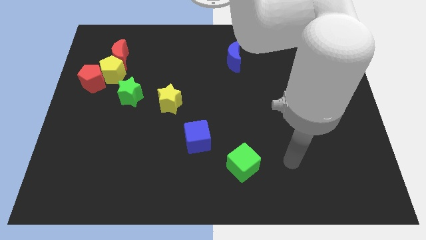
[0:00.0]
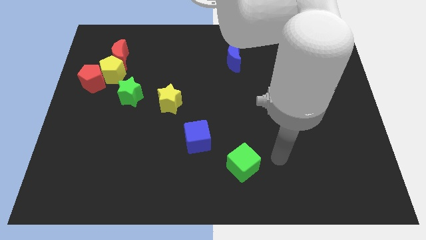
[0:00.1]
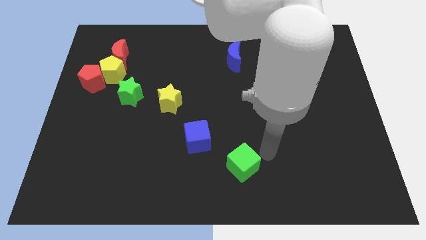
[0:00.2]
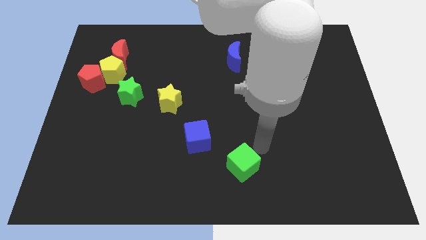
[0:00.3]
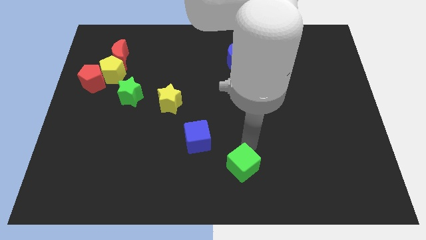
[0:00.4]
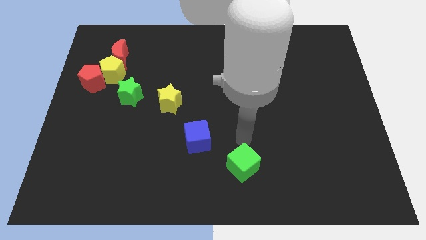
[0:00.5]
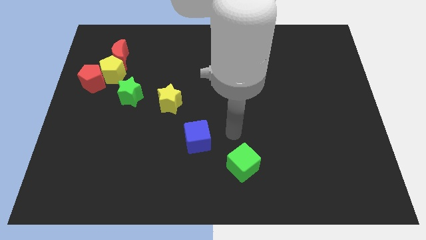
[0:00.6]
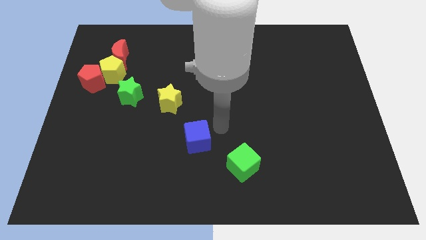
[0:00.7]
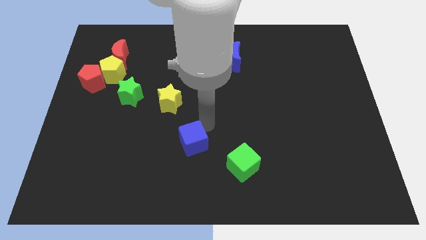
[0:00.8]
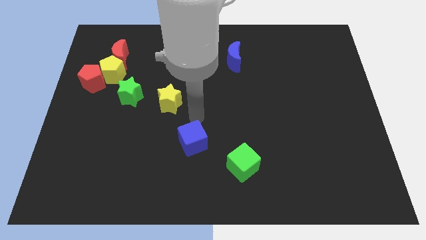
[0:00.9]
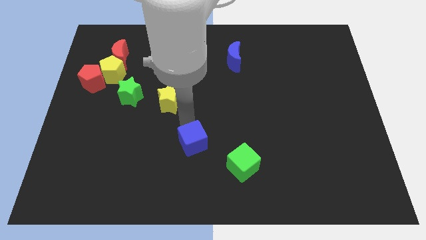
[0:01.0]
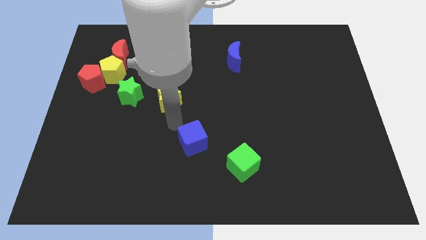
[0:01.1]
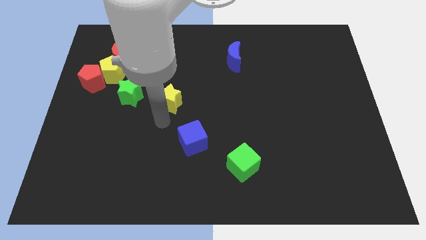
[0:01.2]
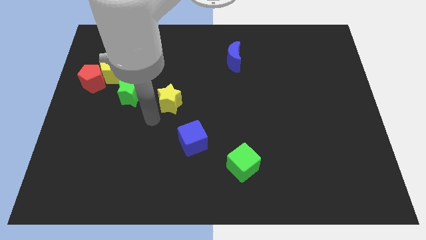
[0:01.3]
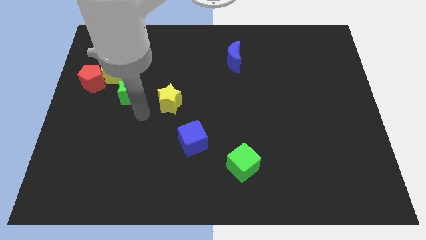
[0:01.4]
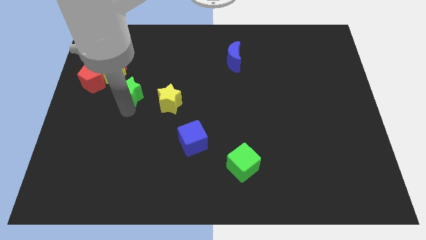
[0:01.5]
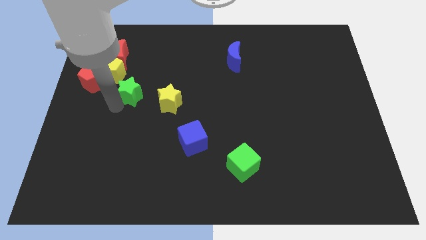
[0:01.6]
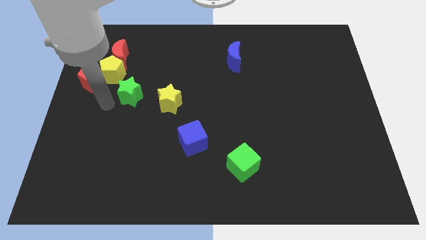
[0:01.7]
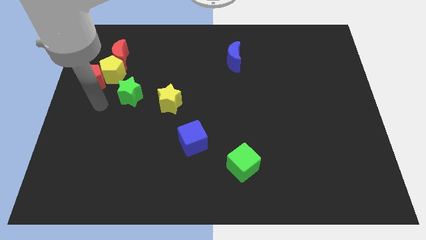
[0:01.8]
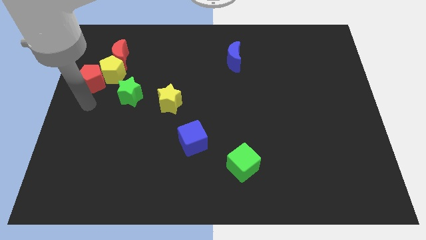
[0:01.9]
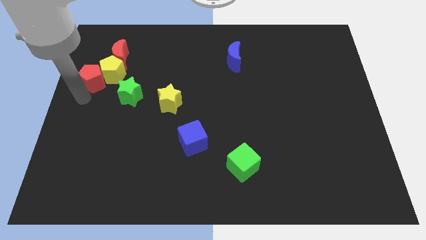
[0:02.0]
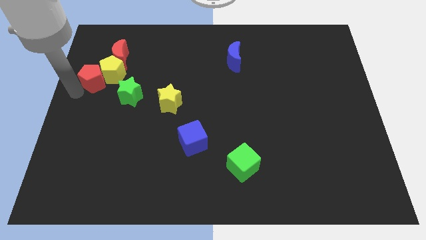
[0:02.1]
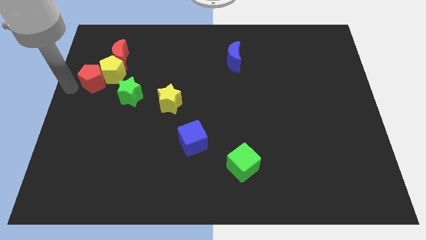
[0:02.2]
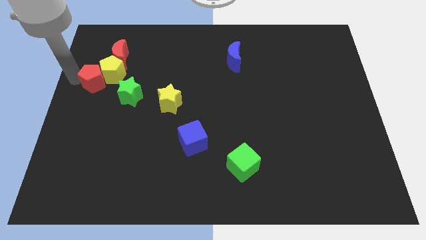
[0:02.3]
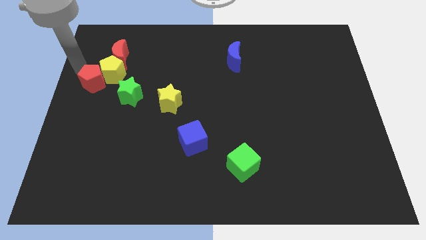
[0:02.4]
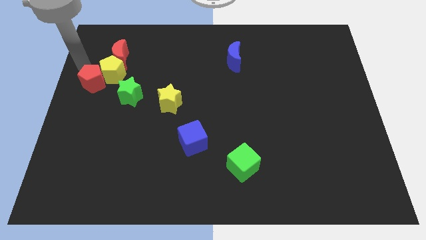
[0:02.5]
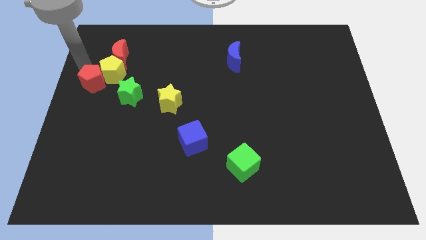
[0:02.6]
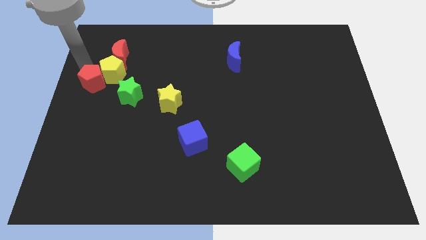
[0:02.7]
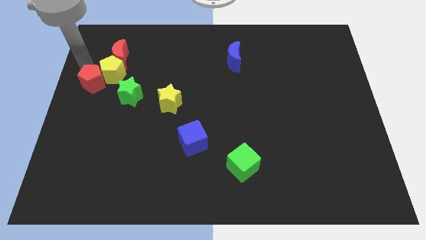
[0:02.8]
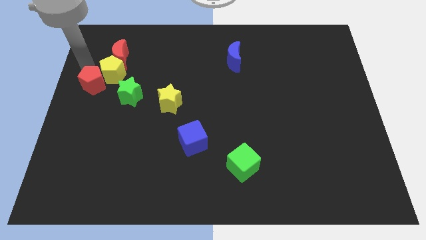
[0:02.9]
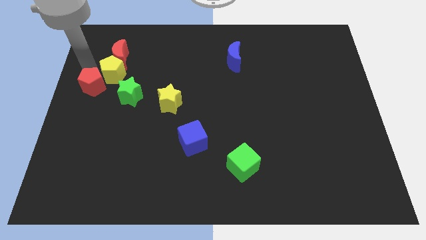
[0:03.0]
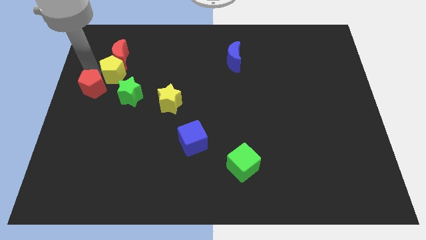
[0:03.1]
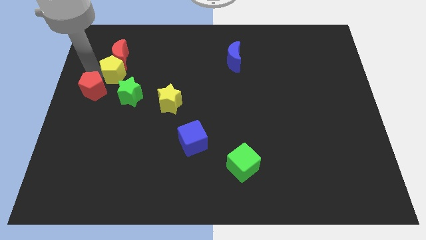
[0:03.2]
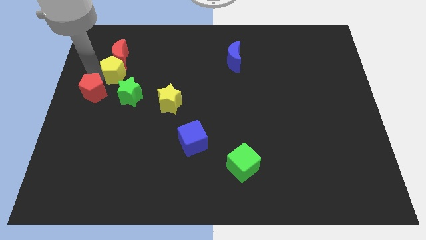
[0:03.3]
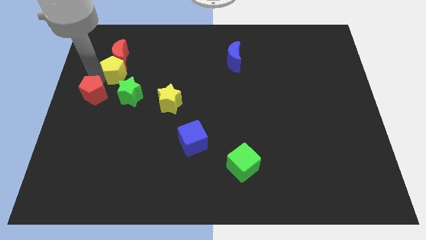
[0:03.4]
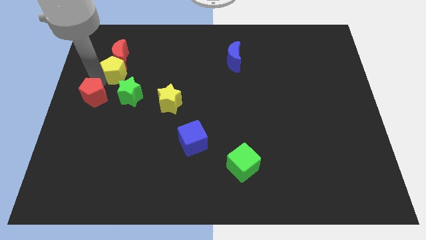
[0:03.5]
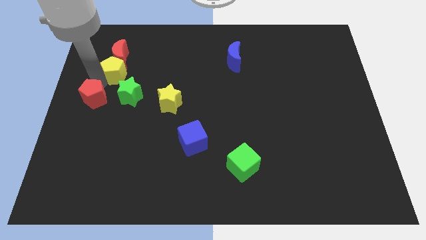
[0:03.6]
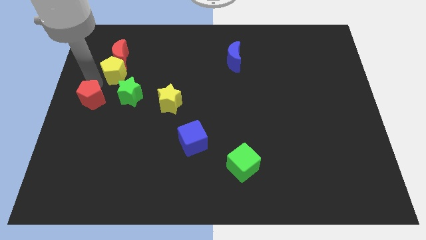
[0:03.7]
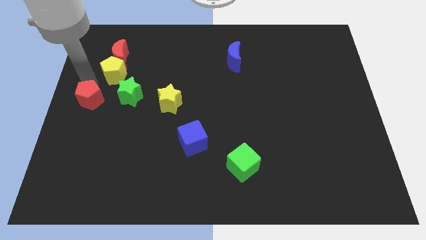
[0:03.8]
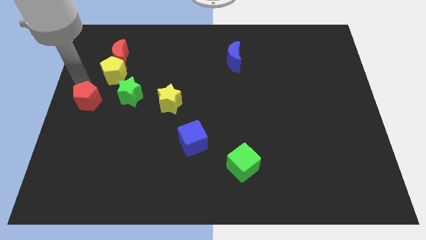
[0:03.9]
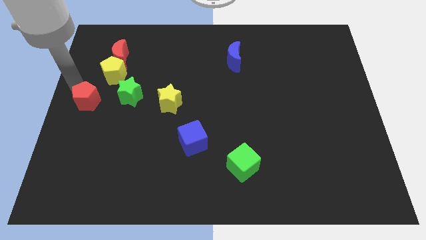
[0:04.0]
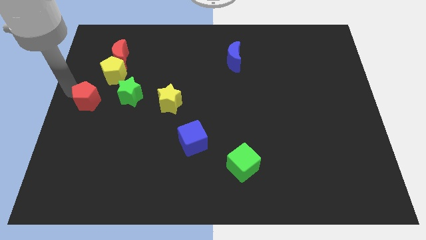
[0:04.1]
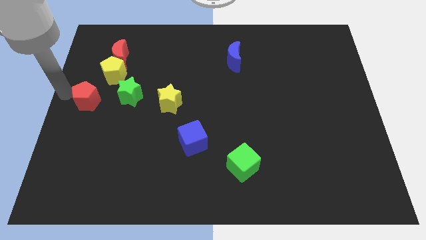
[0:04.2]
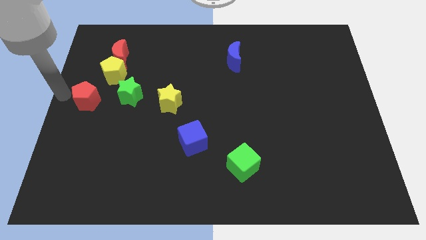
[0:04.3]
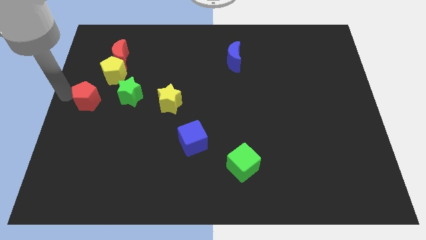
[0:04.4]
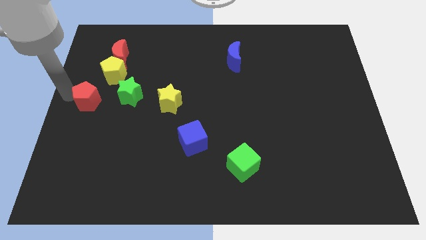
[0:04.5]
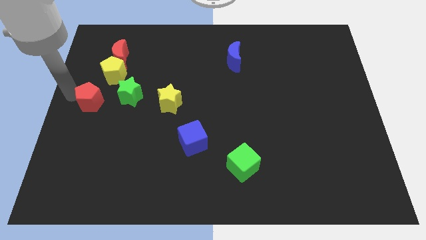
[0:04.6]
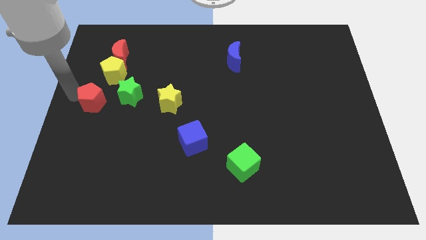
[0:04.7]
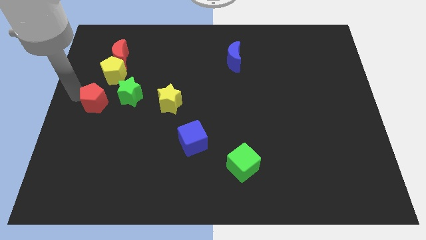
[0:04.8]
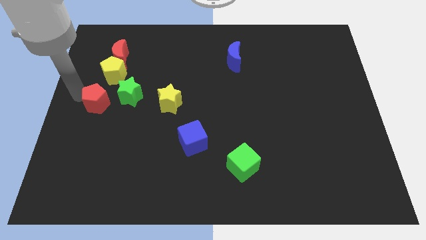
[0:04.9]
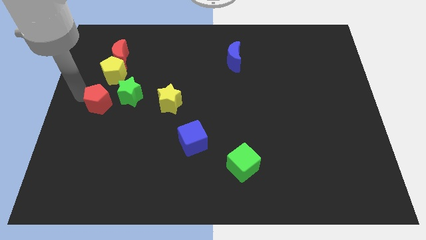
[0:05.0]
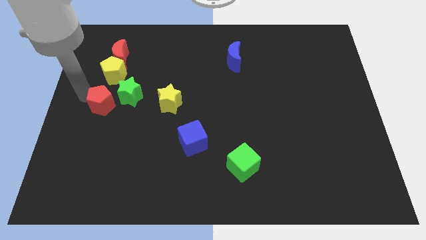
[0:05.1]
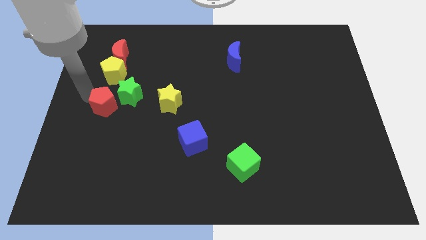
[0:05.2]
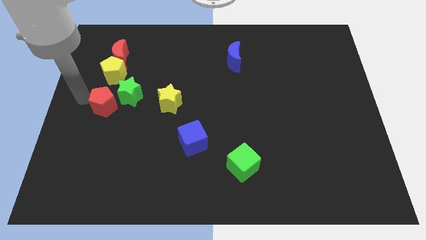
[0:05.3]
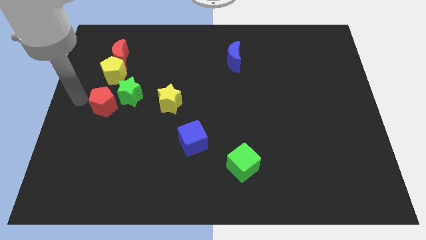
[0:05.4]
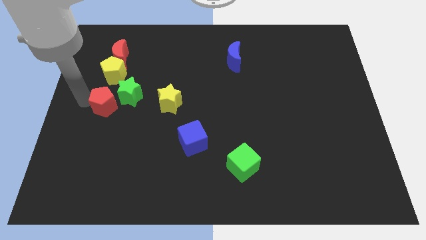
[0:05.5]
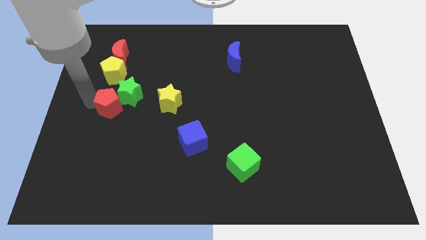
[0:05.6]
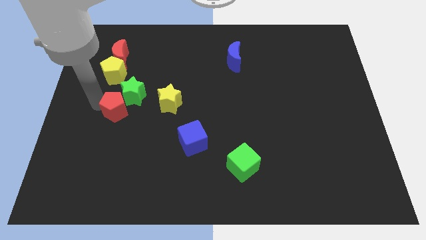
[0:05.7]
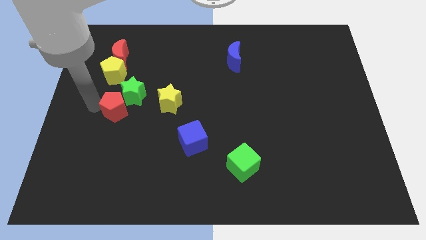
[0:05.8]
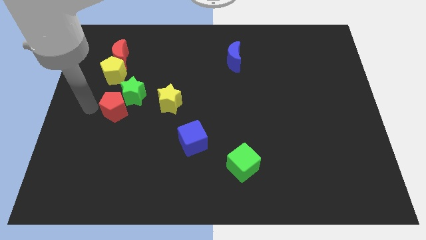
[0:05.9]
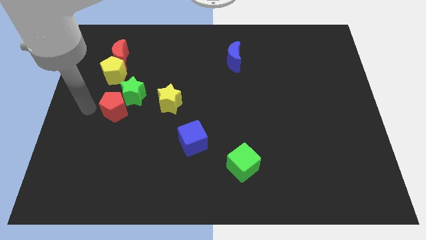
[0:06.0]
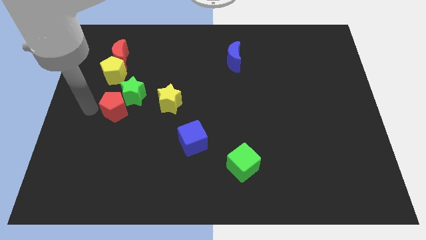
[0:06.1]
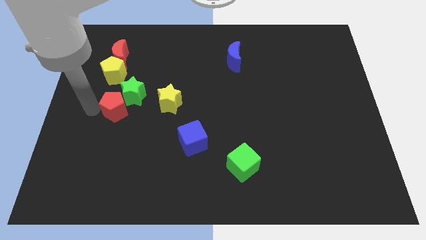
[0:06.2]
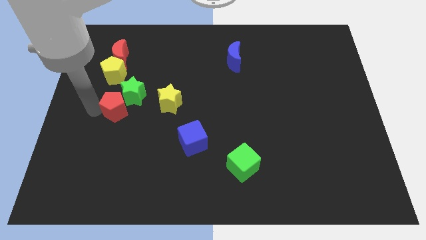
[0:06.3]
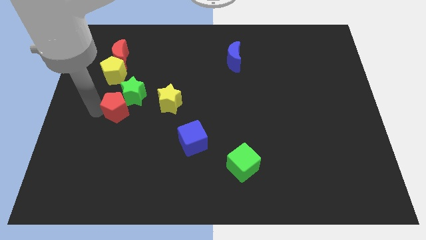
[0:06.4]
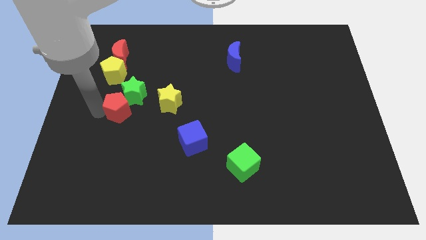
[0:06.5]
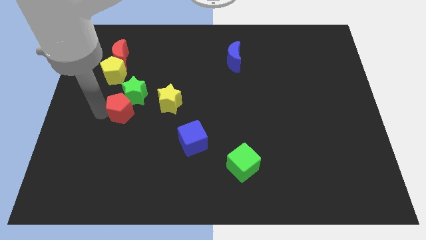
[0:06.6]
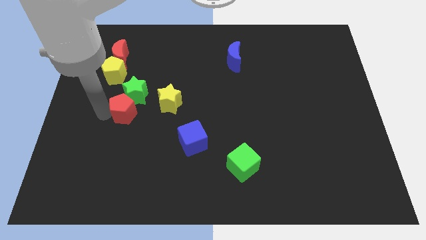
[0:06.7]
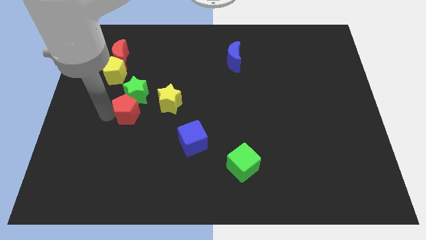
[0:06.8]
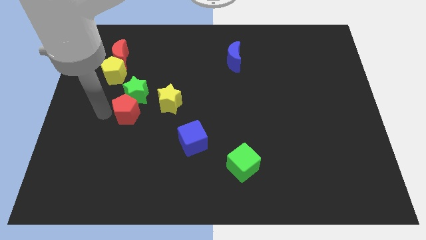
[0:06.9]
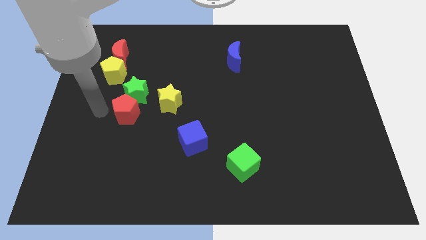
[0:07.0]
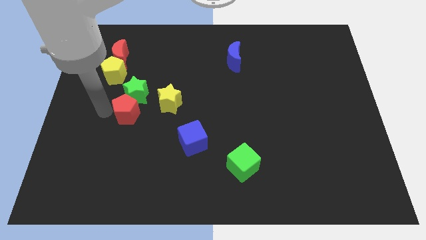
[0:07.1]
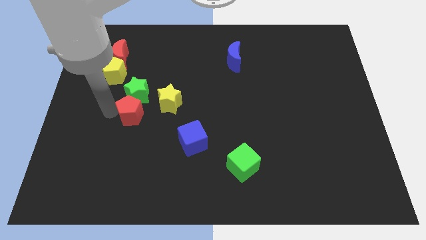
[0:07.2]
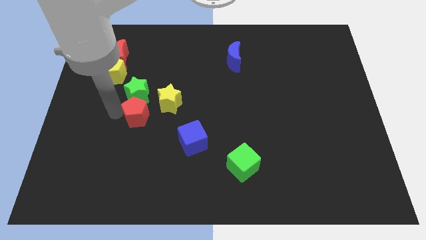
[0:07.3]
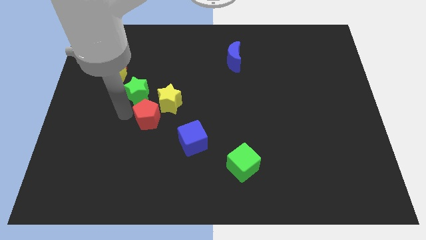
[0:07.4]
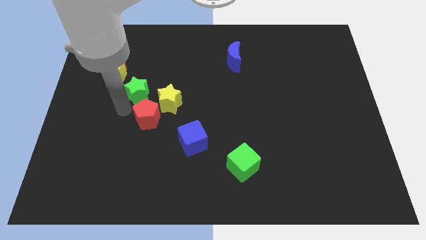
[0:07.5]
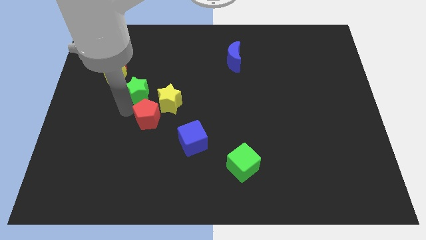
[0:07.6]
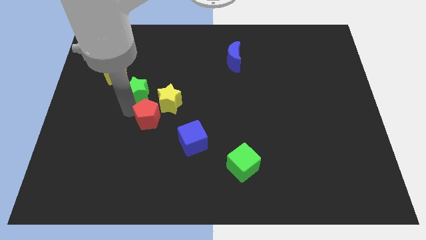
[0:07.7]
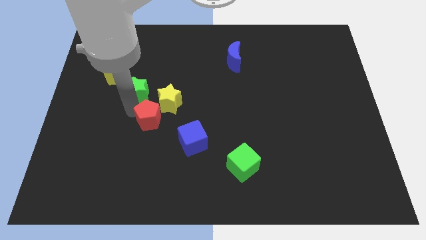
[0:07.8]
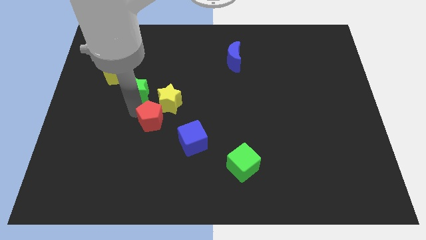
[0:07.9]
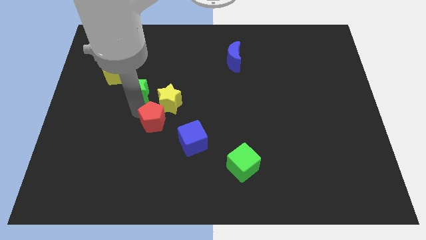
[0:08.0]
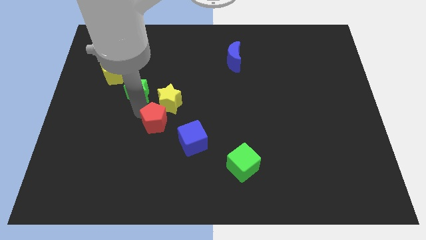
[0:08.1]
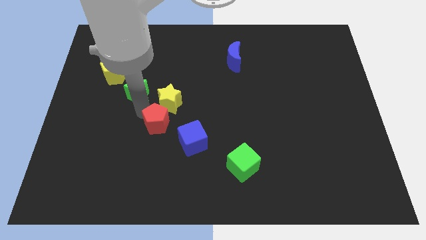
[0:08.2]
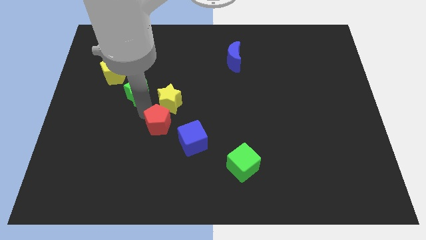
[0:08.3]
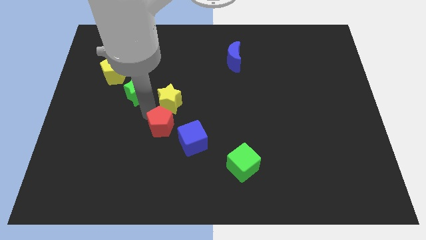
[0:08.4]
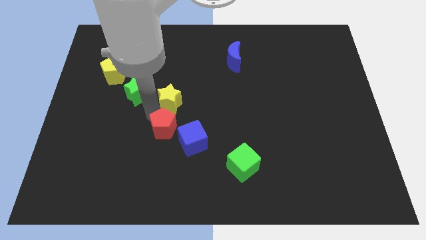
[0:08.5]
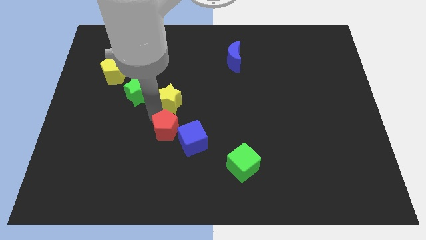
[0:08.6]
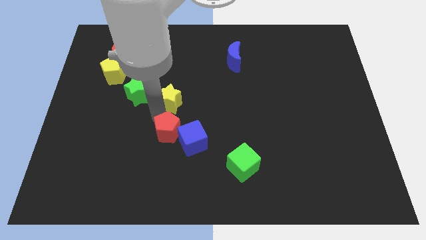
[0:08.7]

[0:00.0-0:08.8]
move the red pentagon towards the blue cube
